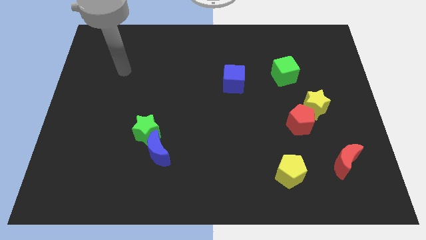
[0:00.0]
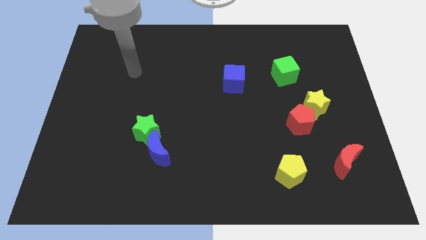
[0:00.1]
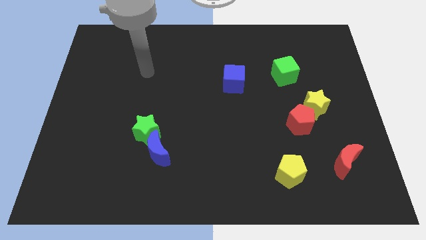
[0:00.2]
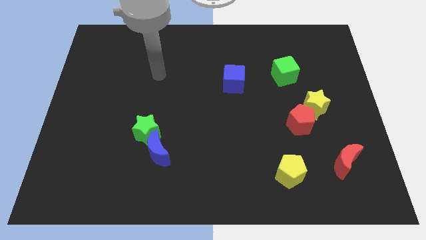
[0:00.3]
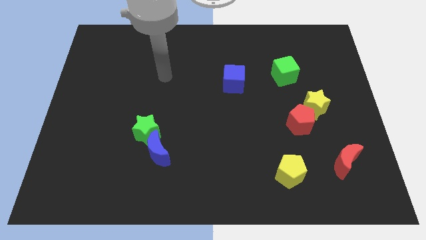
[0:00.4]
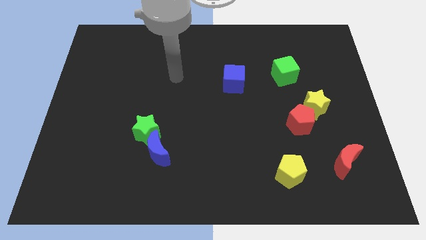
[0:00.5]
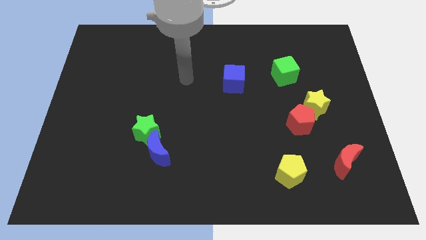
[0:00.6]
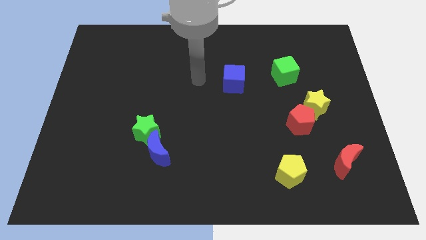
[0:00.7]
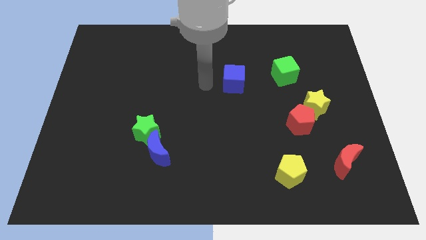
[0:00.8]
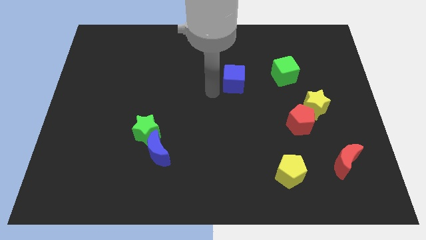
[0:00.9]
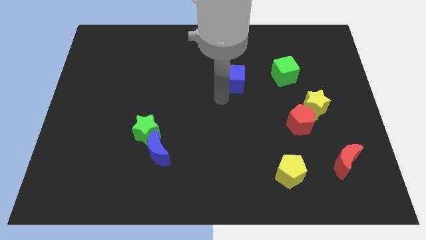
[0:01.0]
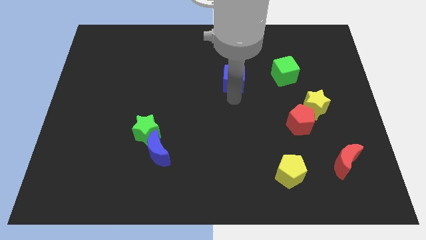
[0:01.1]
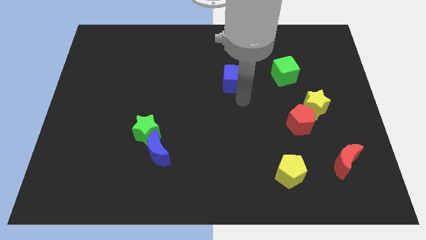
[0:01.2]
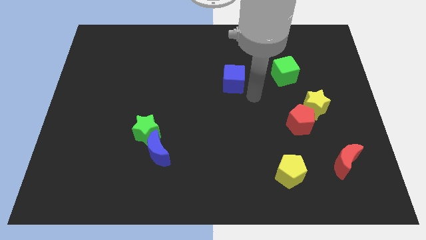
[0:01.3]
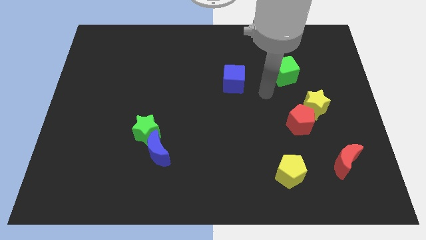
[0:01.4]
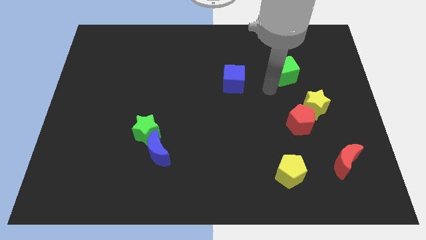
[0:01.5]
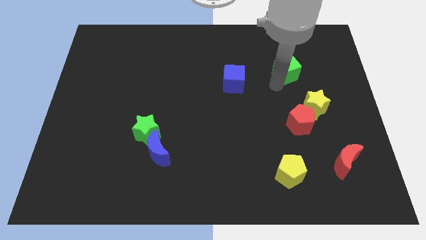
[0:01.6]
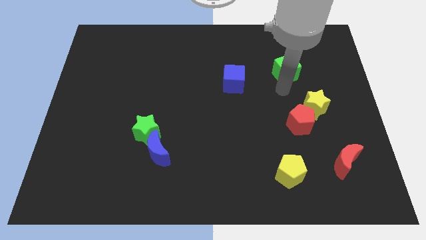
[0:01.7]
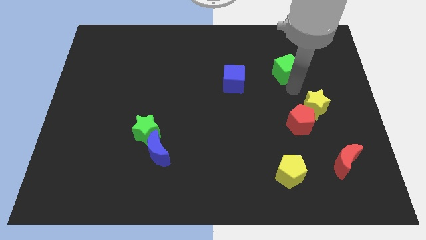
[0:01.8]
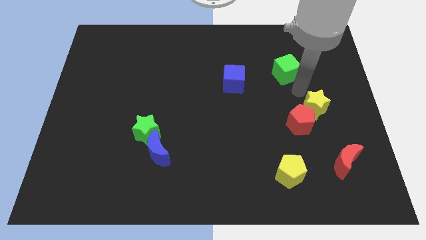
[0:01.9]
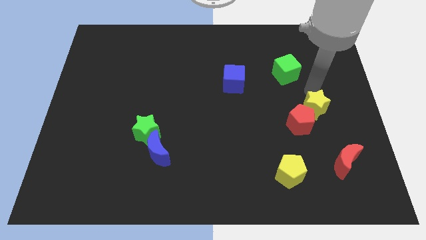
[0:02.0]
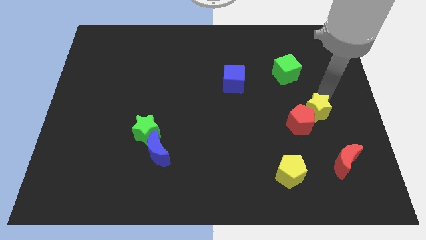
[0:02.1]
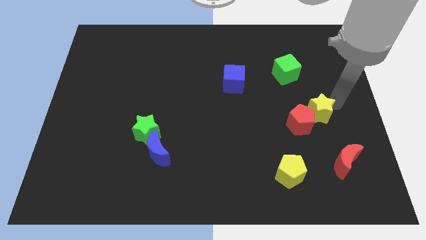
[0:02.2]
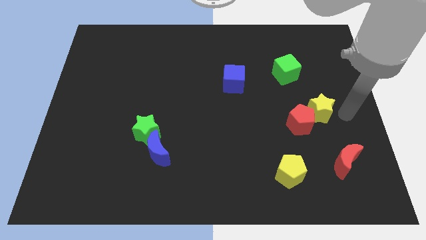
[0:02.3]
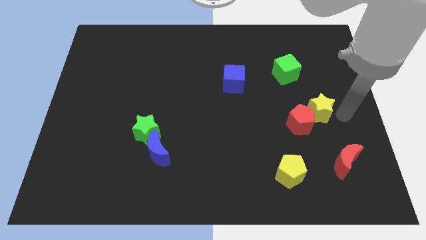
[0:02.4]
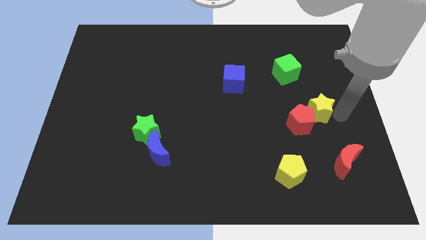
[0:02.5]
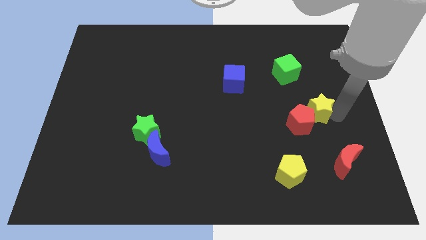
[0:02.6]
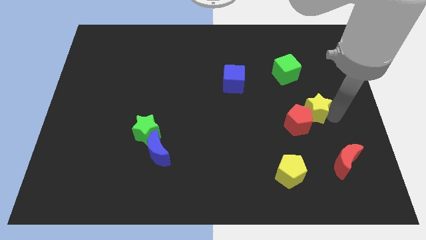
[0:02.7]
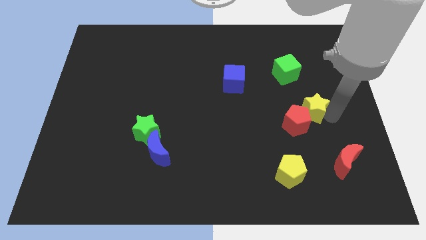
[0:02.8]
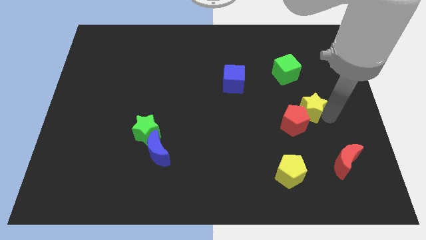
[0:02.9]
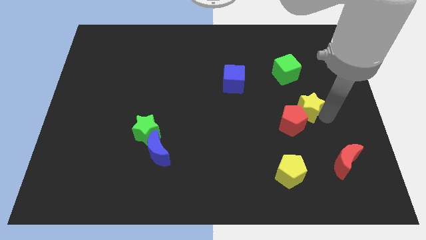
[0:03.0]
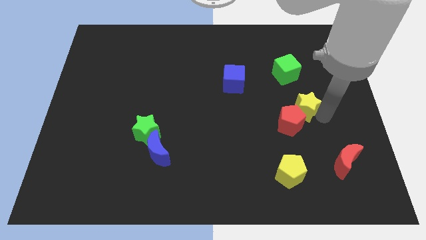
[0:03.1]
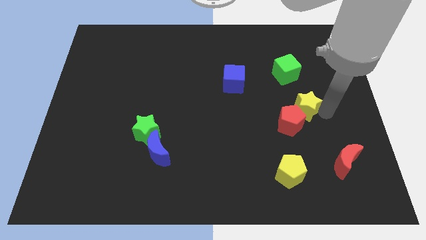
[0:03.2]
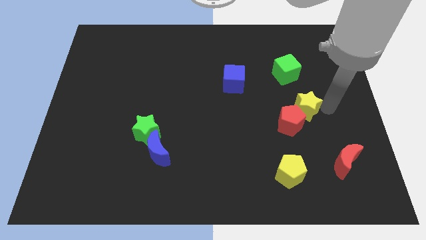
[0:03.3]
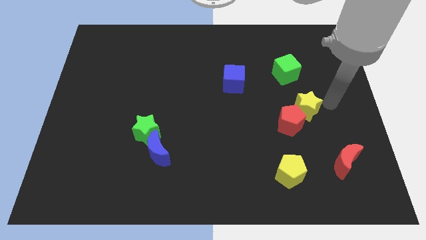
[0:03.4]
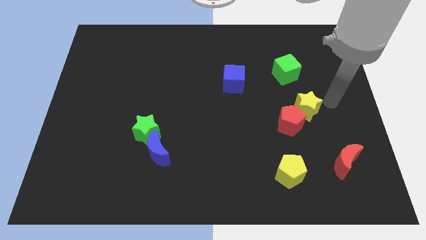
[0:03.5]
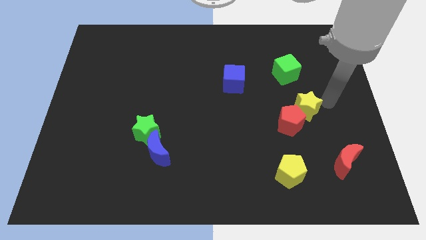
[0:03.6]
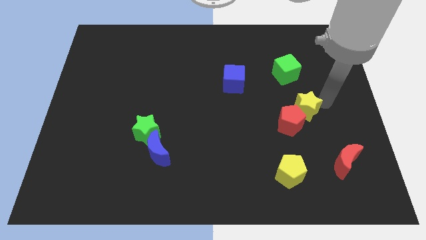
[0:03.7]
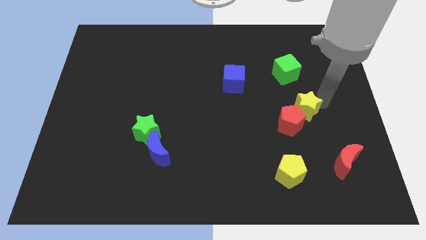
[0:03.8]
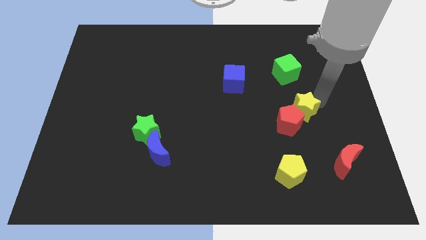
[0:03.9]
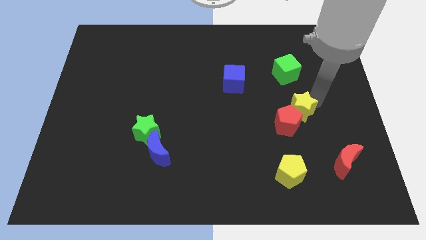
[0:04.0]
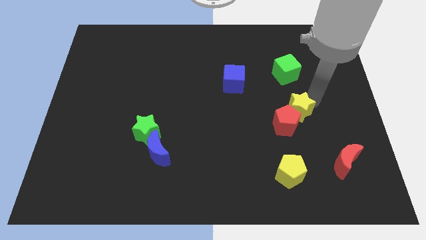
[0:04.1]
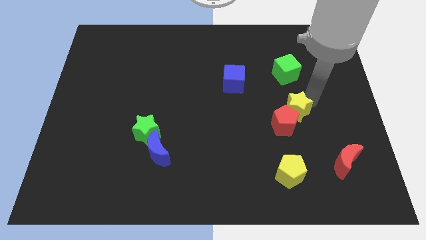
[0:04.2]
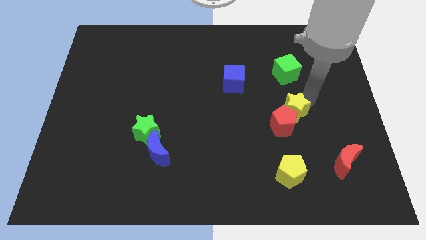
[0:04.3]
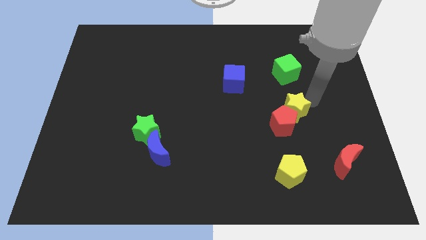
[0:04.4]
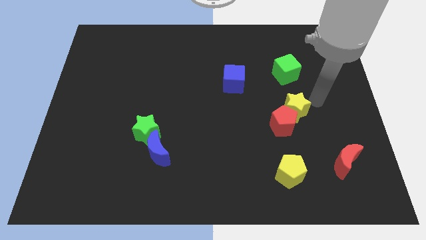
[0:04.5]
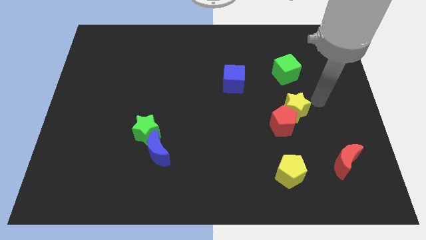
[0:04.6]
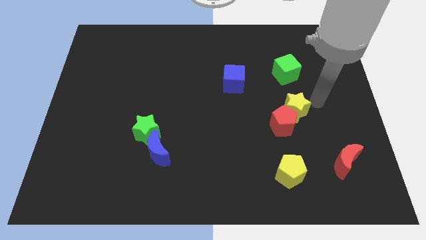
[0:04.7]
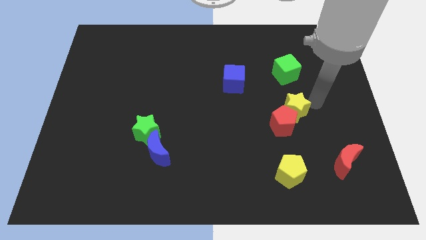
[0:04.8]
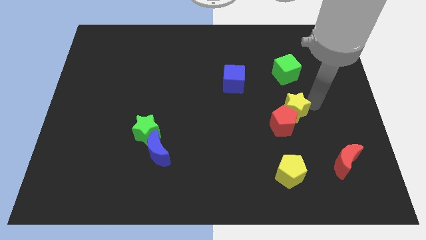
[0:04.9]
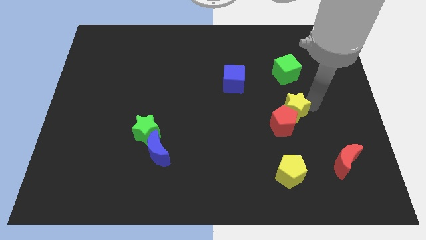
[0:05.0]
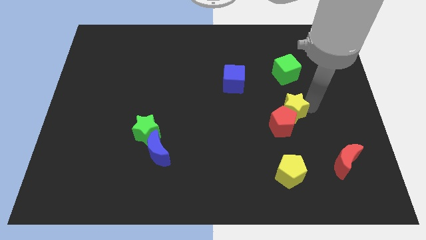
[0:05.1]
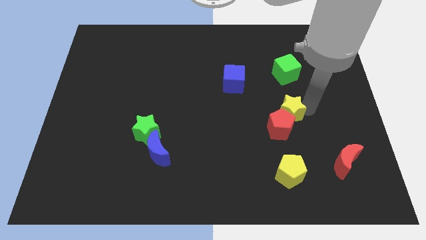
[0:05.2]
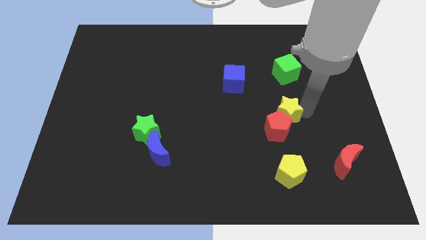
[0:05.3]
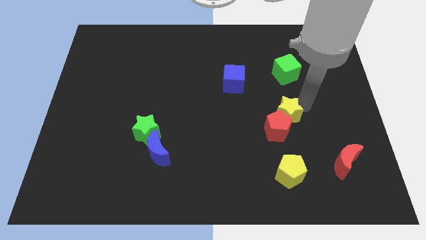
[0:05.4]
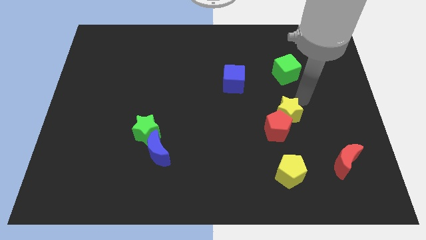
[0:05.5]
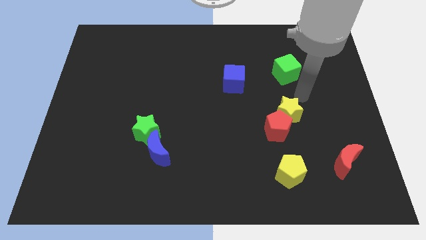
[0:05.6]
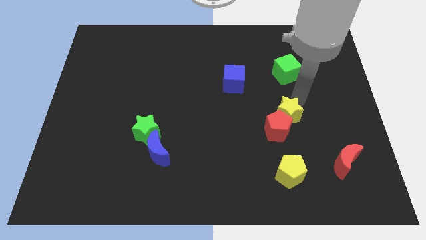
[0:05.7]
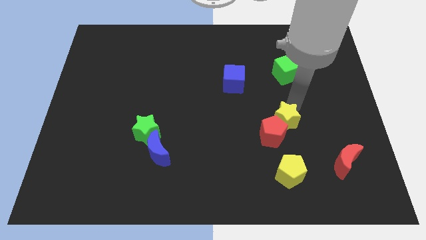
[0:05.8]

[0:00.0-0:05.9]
move the yellow star down and left somewhat

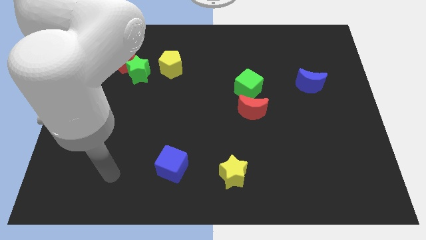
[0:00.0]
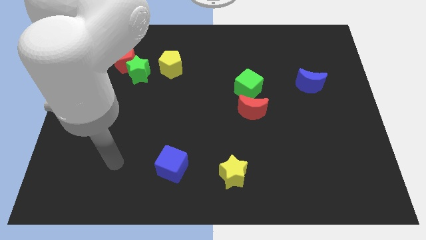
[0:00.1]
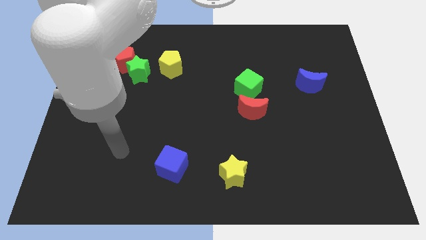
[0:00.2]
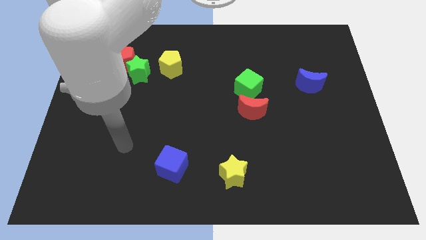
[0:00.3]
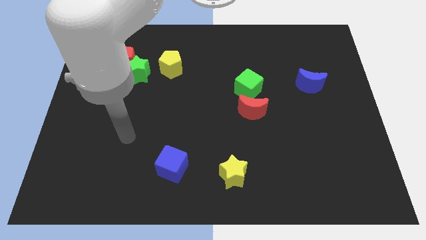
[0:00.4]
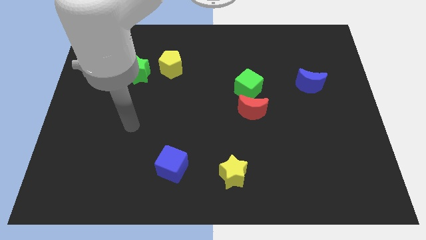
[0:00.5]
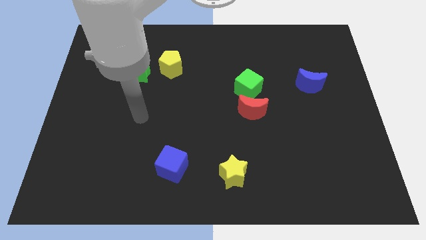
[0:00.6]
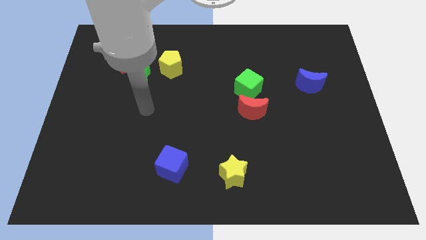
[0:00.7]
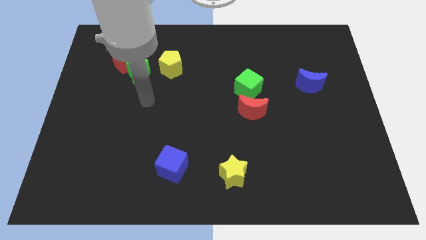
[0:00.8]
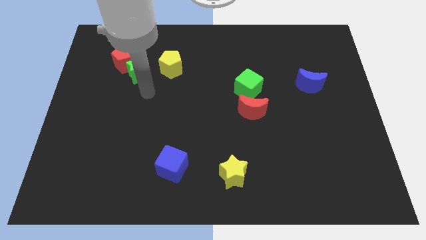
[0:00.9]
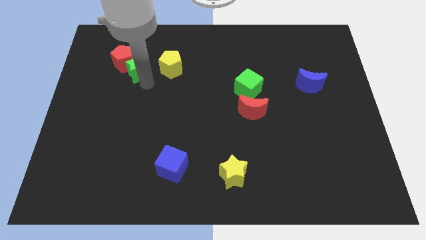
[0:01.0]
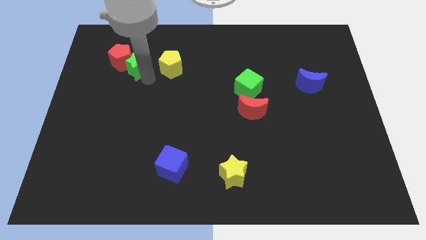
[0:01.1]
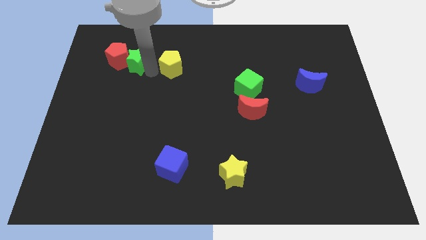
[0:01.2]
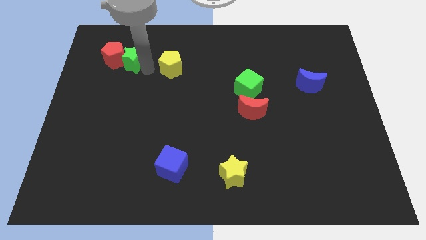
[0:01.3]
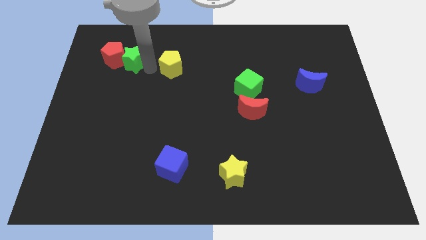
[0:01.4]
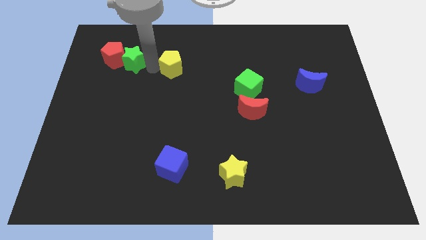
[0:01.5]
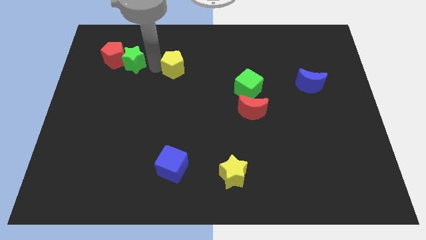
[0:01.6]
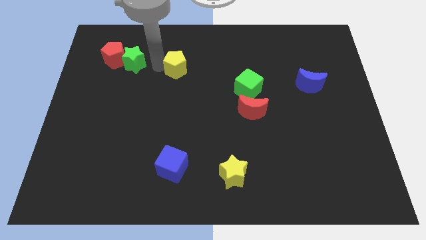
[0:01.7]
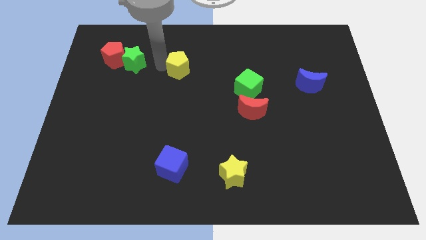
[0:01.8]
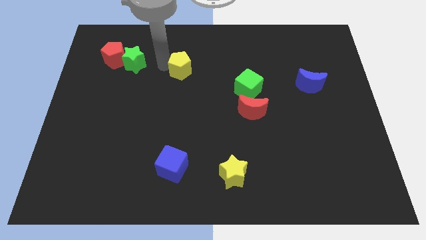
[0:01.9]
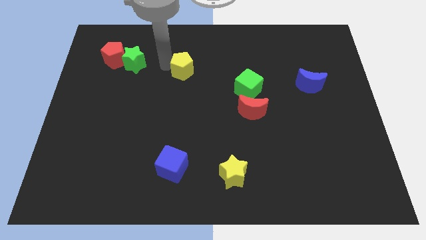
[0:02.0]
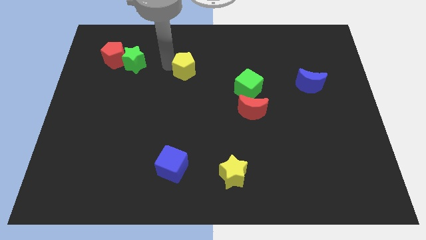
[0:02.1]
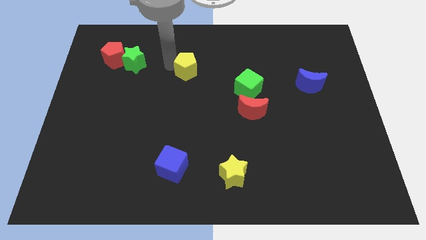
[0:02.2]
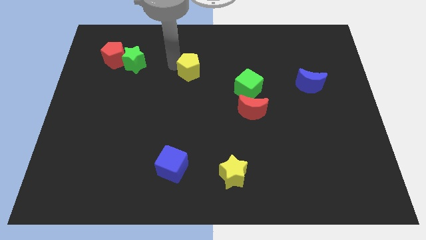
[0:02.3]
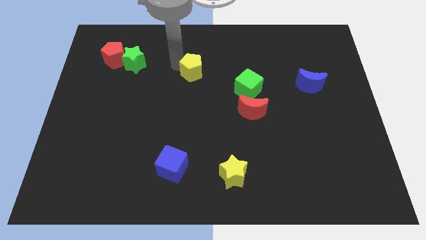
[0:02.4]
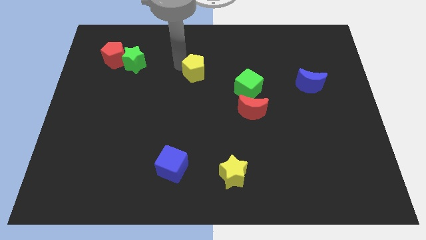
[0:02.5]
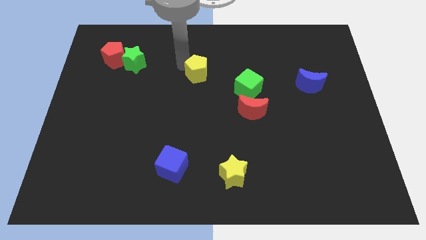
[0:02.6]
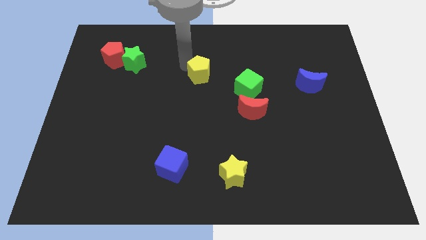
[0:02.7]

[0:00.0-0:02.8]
push the yellow pentagon slightly to the right
